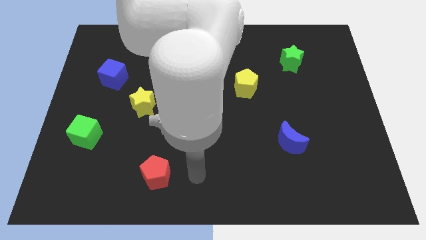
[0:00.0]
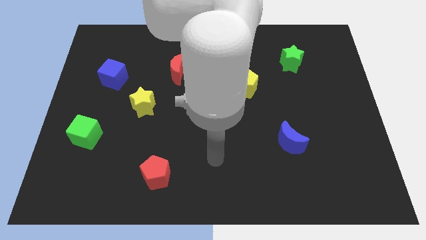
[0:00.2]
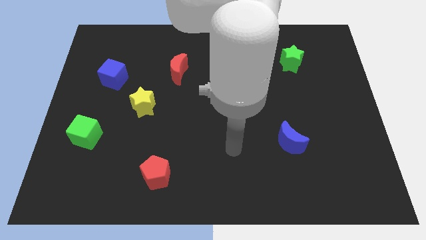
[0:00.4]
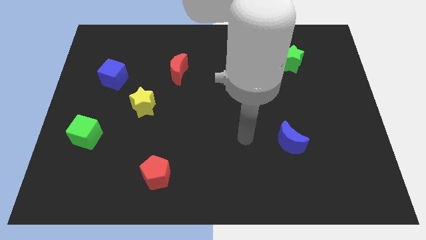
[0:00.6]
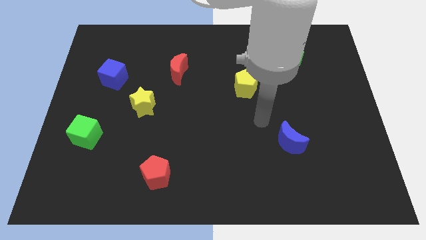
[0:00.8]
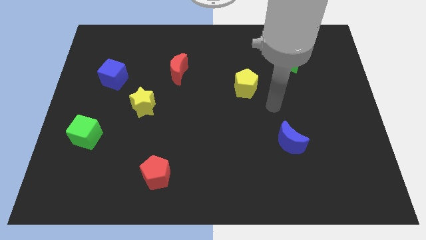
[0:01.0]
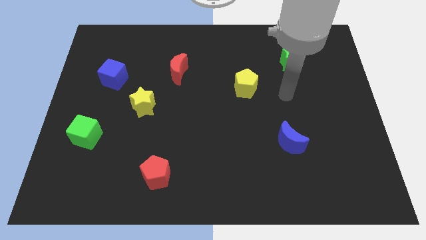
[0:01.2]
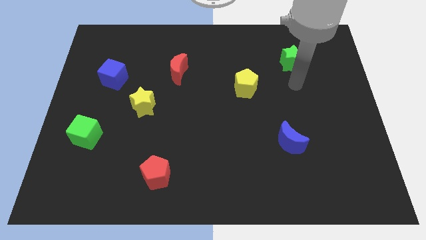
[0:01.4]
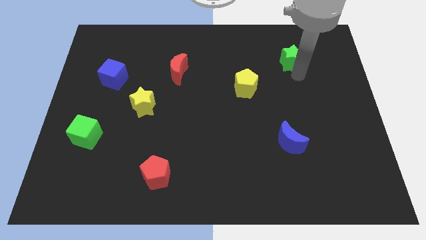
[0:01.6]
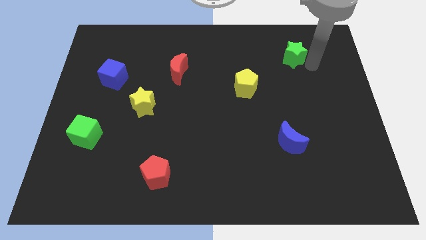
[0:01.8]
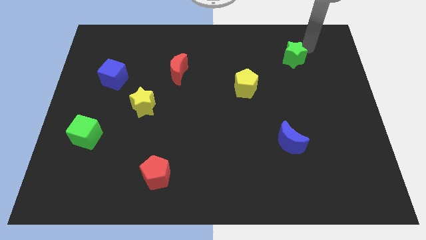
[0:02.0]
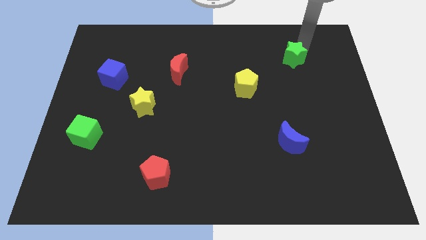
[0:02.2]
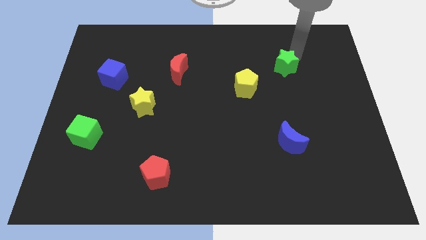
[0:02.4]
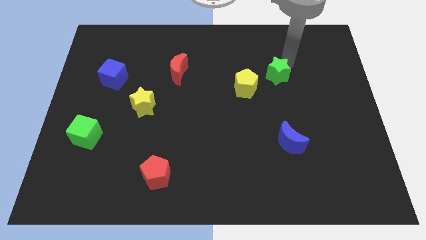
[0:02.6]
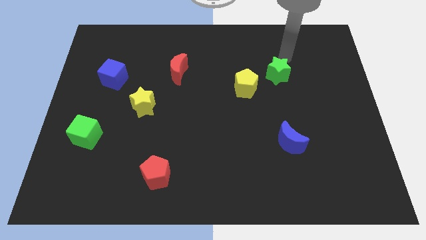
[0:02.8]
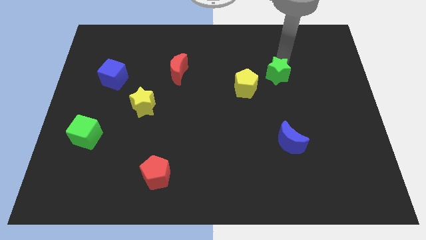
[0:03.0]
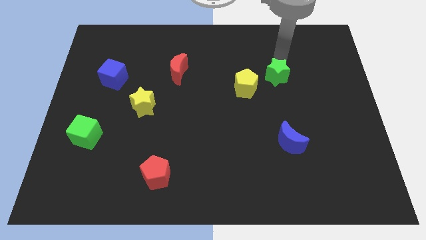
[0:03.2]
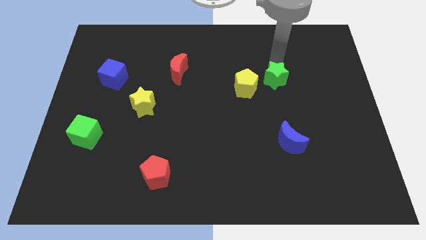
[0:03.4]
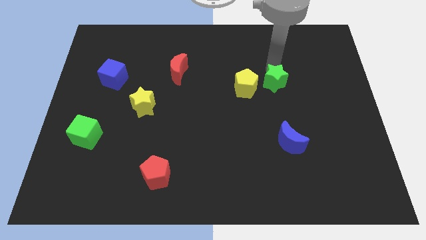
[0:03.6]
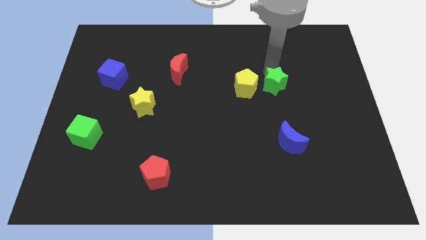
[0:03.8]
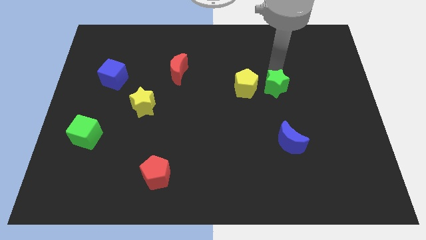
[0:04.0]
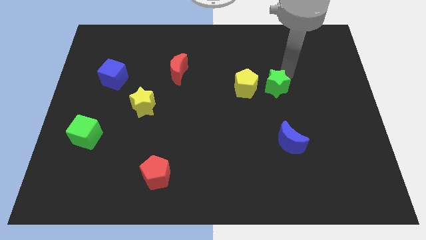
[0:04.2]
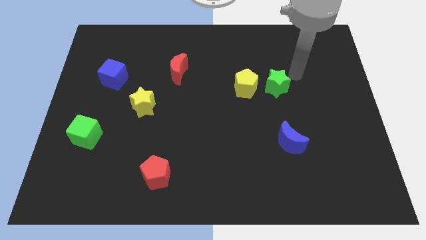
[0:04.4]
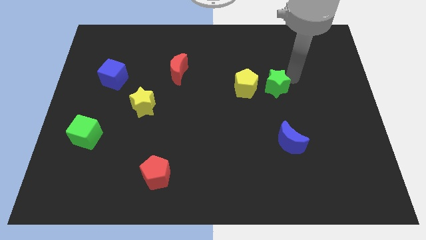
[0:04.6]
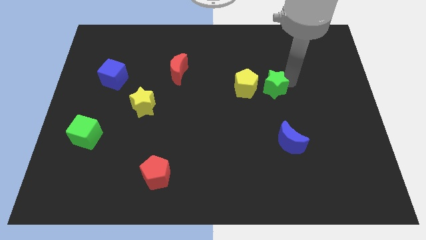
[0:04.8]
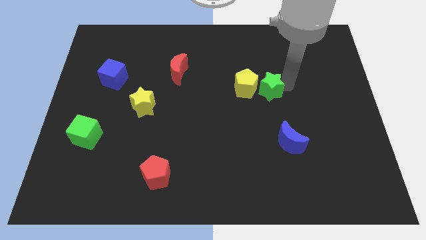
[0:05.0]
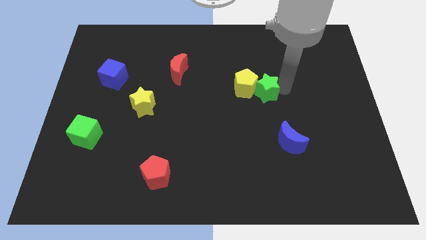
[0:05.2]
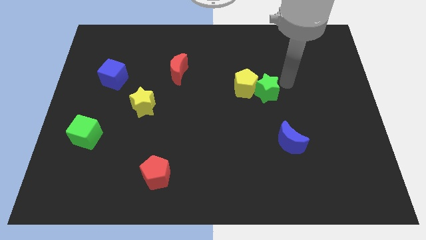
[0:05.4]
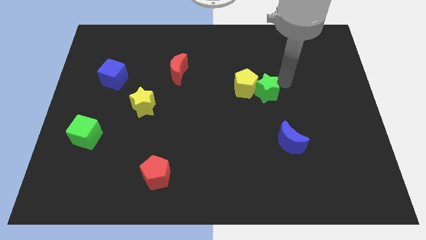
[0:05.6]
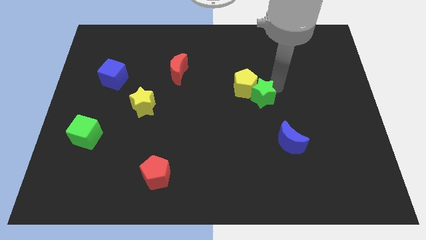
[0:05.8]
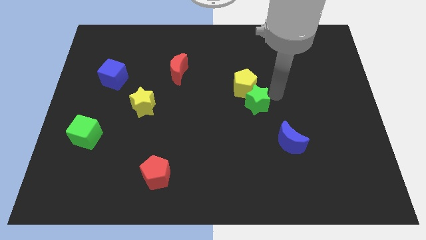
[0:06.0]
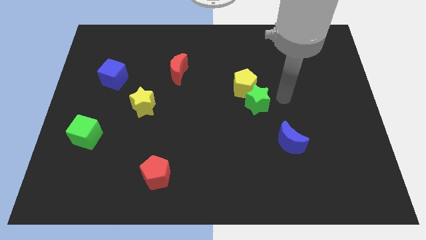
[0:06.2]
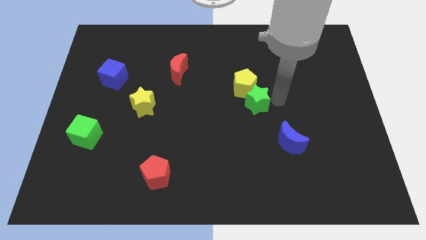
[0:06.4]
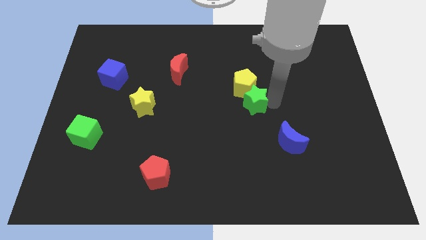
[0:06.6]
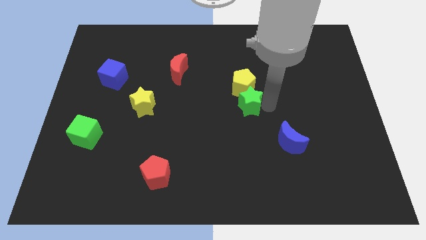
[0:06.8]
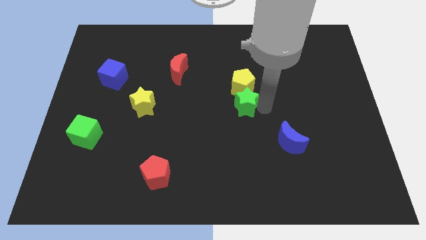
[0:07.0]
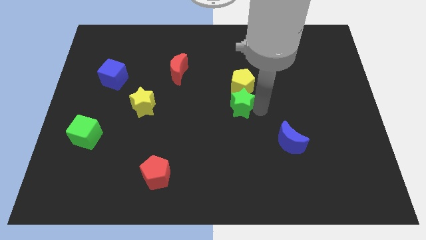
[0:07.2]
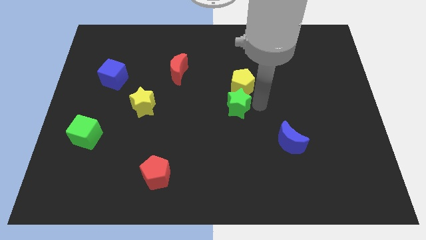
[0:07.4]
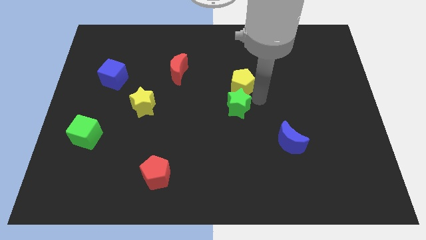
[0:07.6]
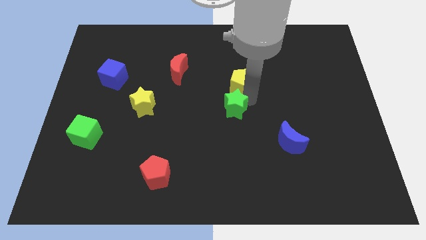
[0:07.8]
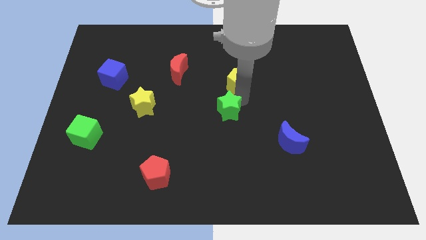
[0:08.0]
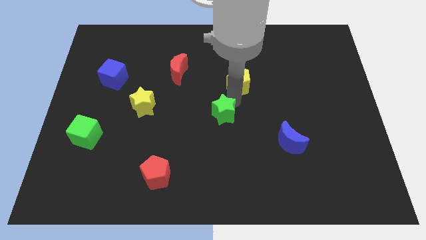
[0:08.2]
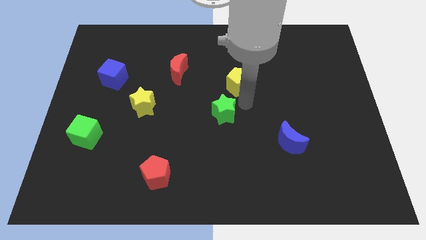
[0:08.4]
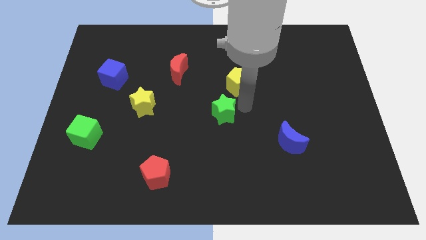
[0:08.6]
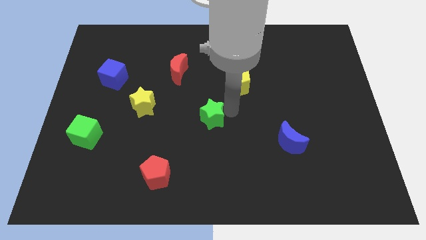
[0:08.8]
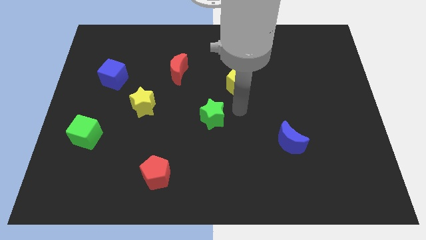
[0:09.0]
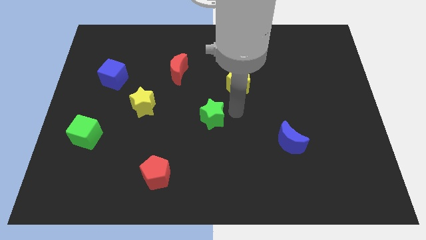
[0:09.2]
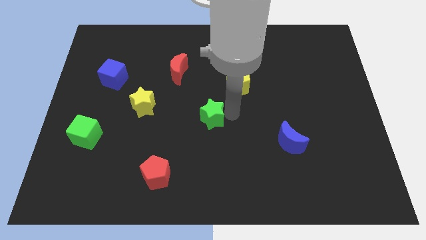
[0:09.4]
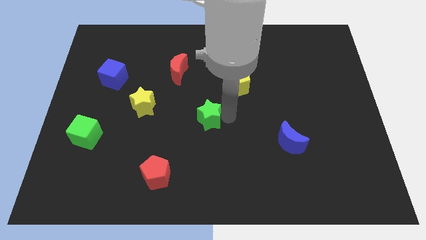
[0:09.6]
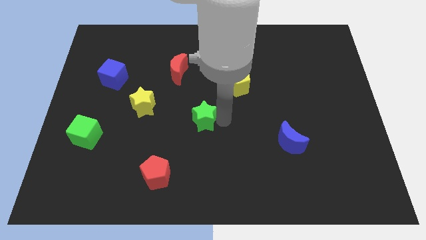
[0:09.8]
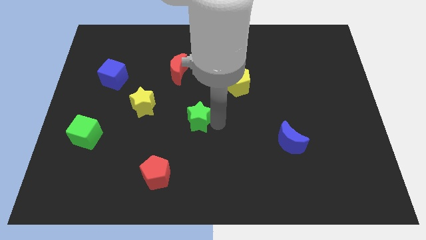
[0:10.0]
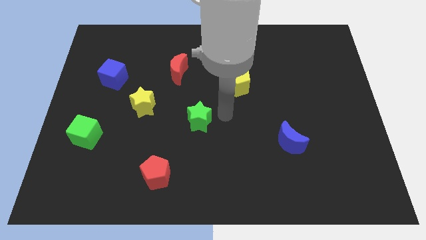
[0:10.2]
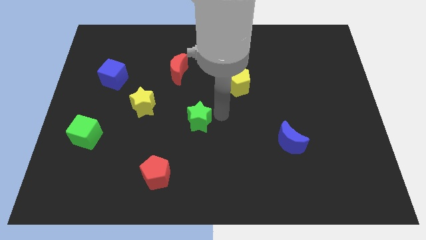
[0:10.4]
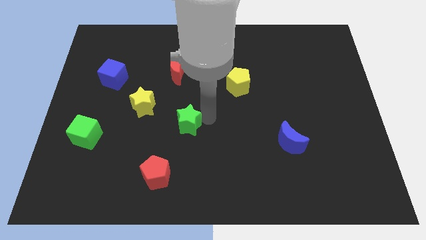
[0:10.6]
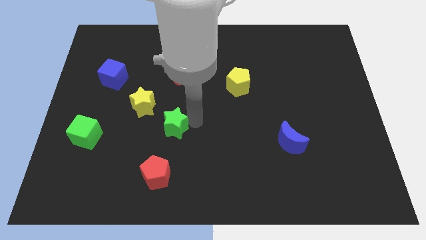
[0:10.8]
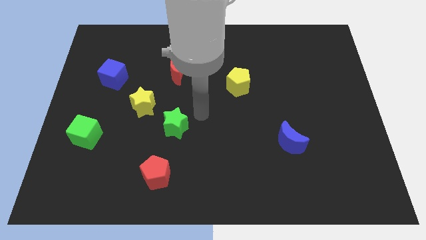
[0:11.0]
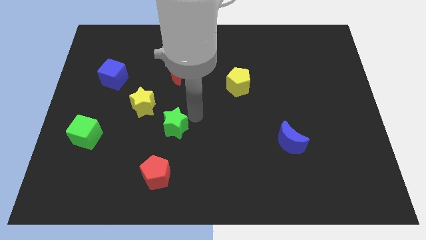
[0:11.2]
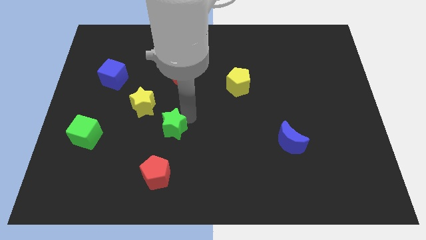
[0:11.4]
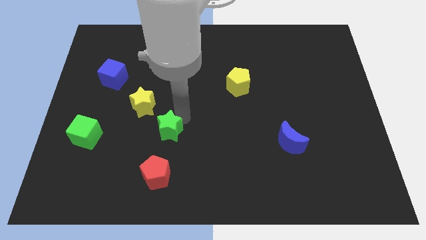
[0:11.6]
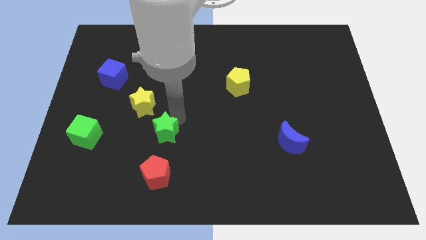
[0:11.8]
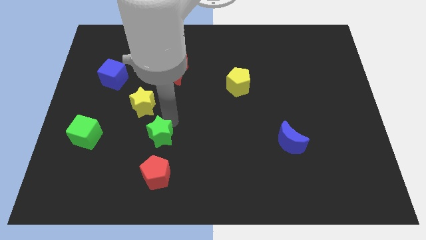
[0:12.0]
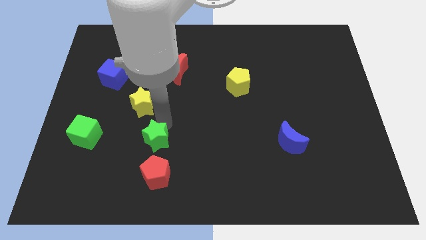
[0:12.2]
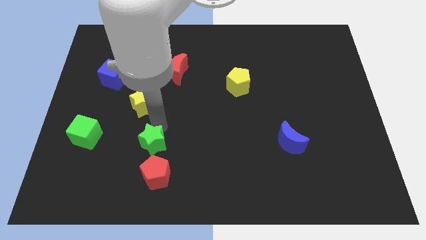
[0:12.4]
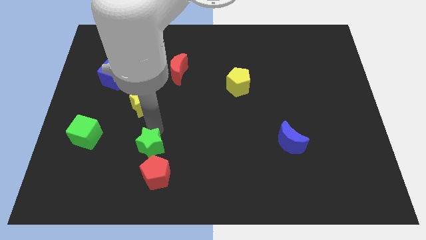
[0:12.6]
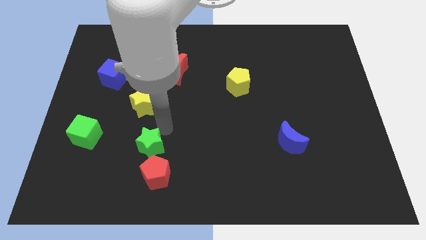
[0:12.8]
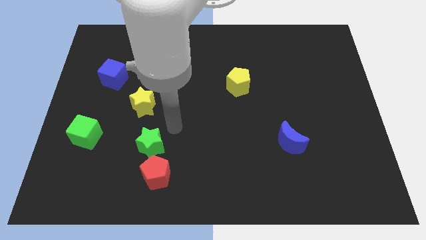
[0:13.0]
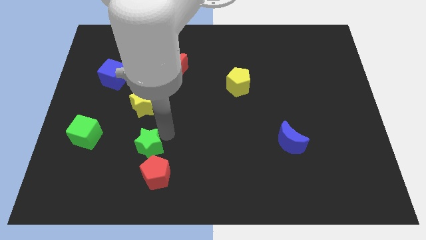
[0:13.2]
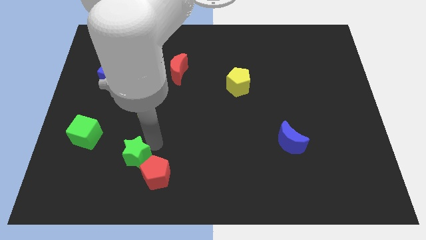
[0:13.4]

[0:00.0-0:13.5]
slide the green star to the left side of the red pentagon
